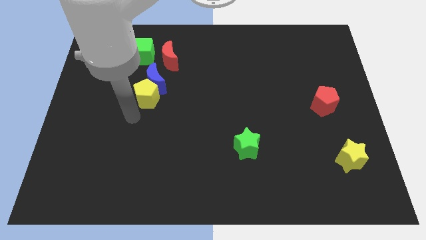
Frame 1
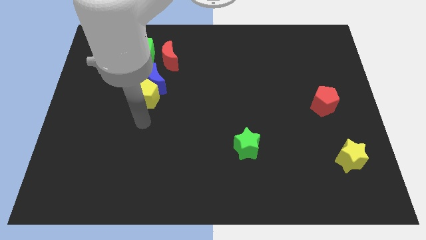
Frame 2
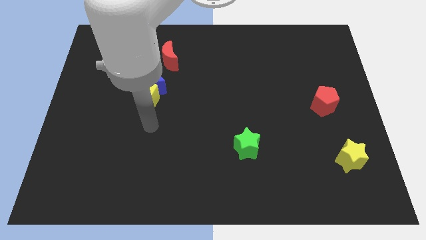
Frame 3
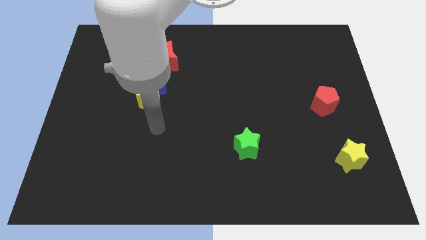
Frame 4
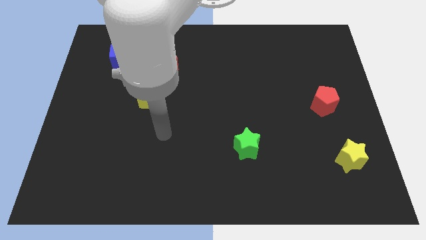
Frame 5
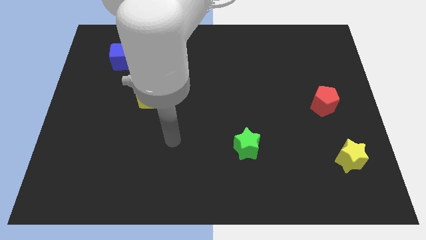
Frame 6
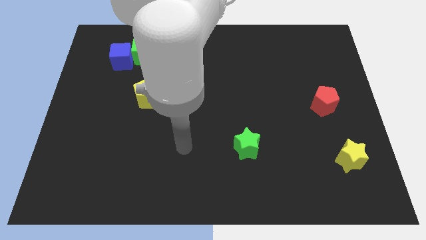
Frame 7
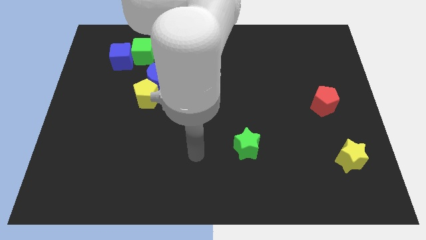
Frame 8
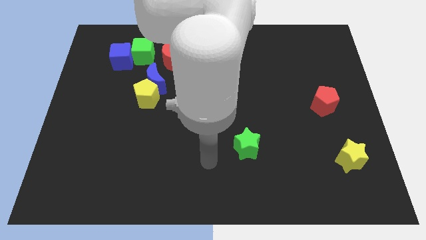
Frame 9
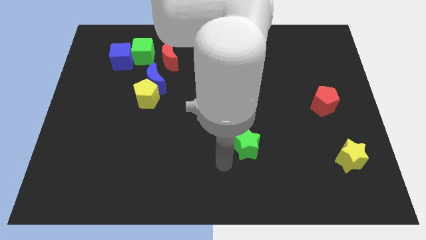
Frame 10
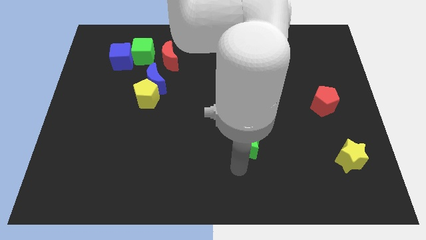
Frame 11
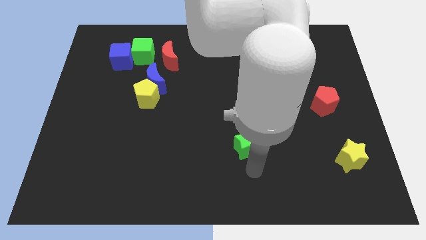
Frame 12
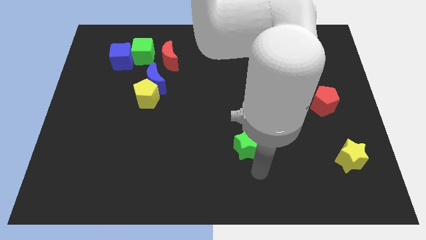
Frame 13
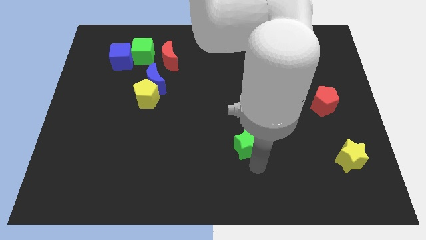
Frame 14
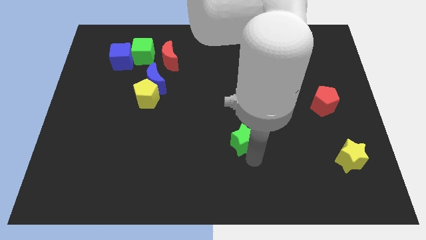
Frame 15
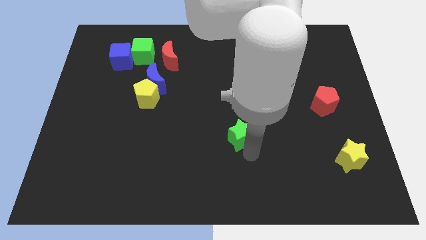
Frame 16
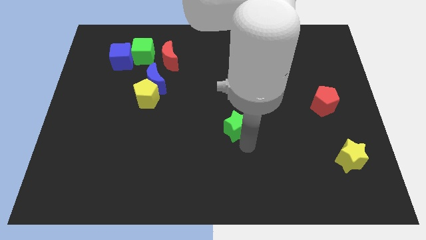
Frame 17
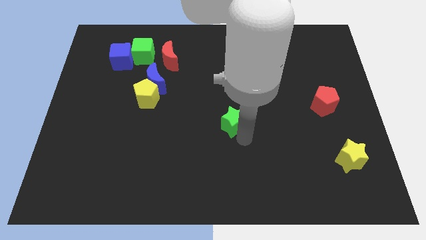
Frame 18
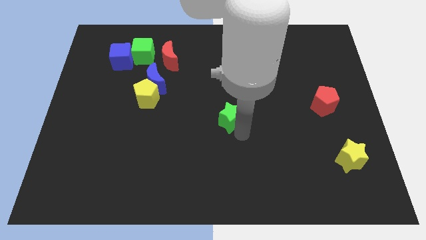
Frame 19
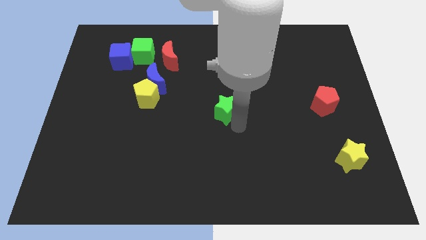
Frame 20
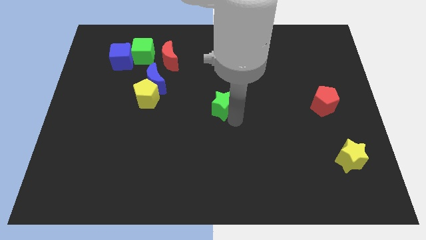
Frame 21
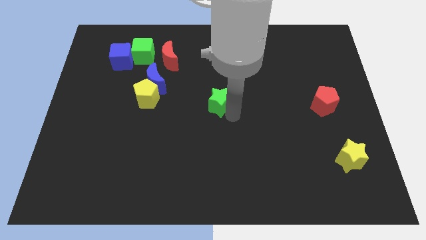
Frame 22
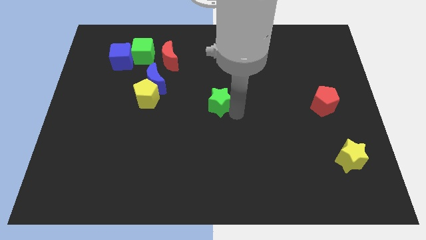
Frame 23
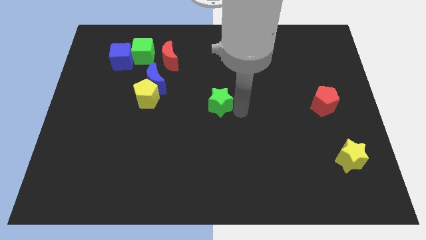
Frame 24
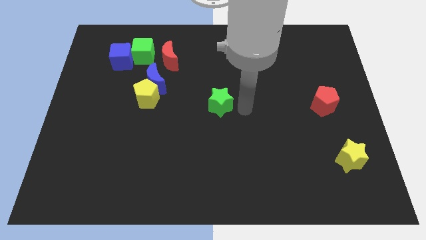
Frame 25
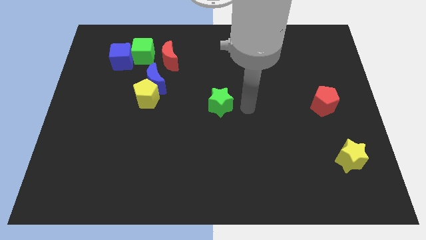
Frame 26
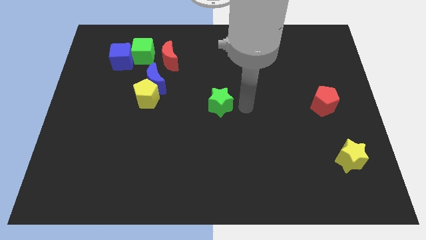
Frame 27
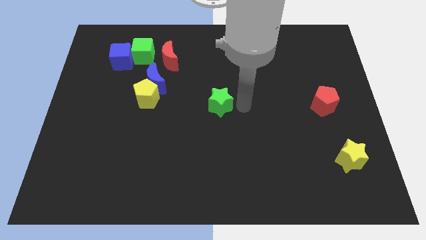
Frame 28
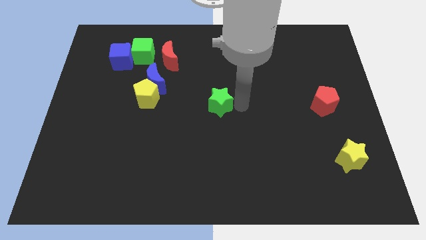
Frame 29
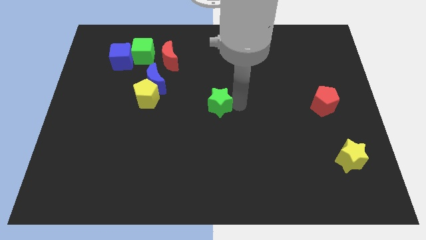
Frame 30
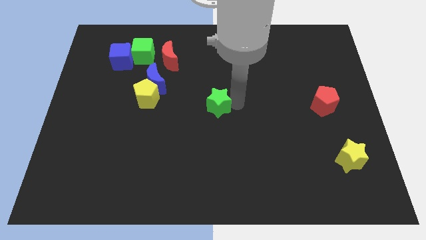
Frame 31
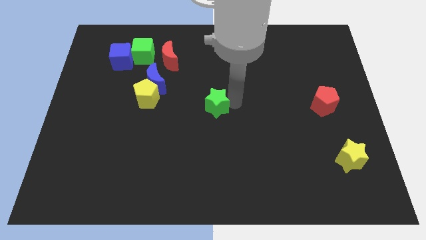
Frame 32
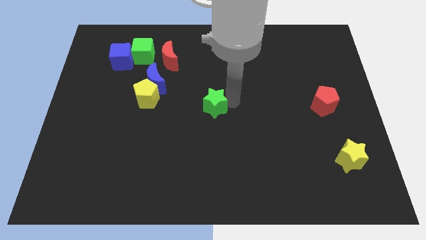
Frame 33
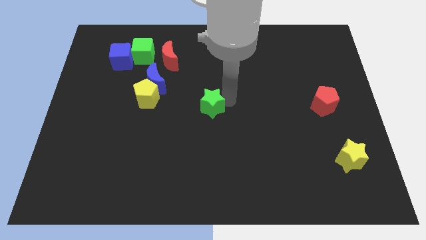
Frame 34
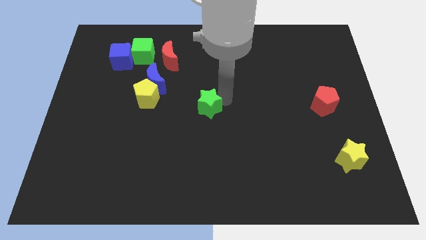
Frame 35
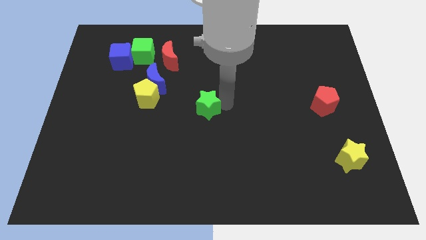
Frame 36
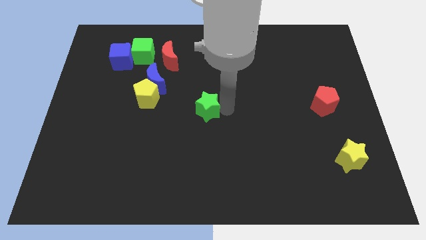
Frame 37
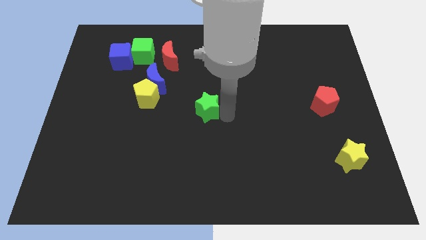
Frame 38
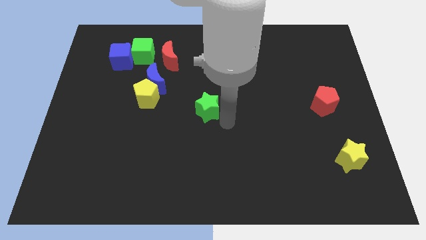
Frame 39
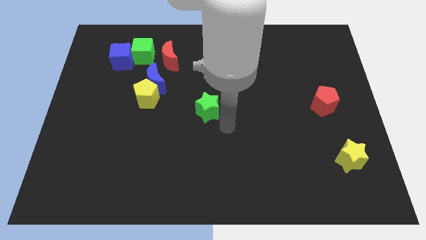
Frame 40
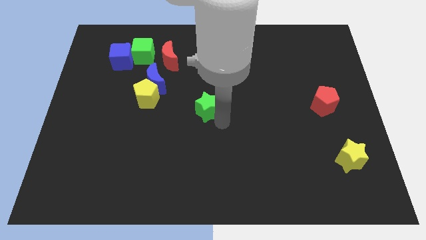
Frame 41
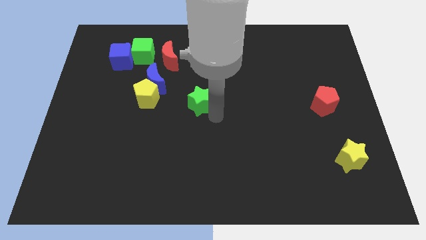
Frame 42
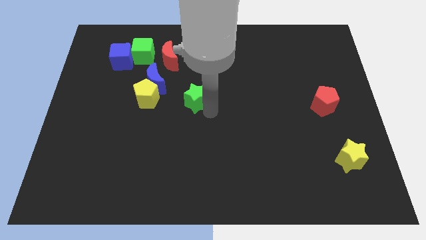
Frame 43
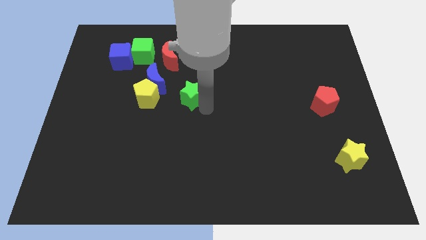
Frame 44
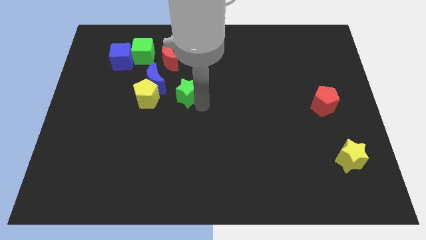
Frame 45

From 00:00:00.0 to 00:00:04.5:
slide the green star up and to the left diagonally

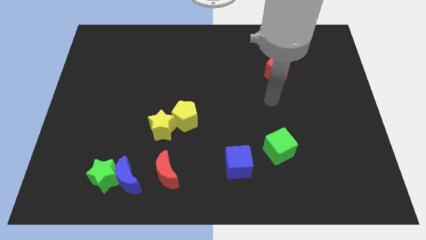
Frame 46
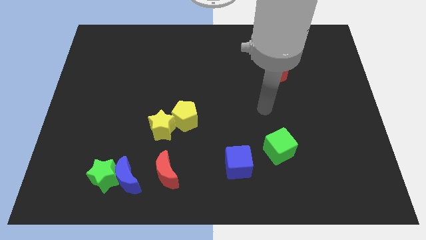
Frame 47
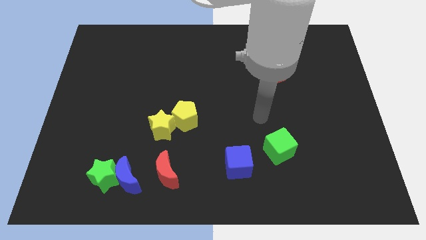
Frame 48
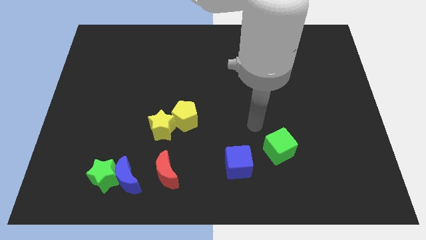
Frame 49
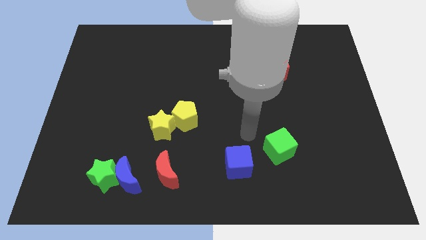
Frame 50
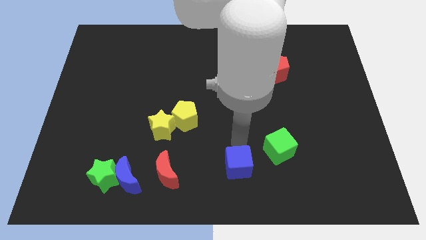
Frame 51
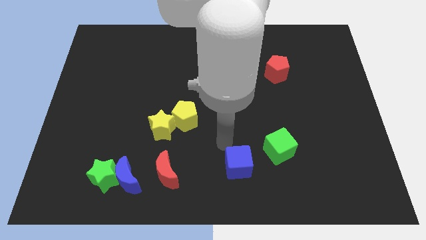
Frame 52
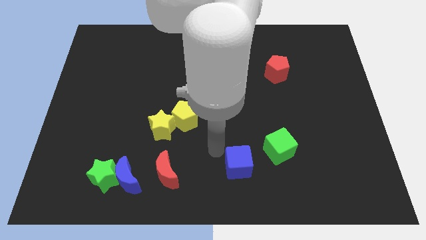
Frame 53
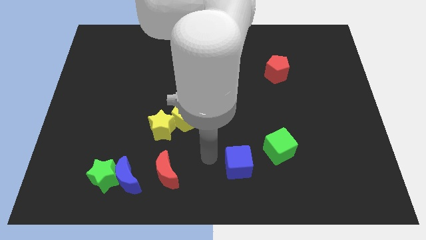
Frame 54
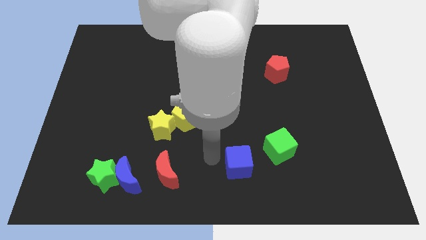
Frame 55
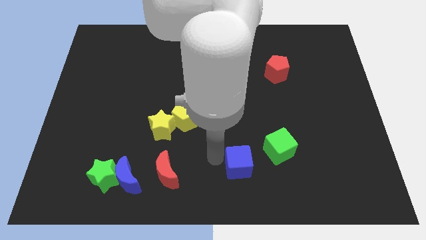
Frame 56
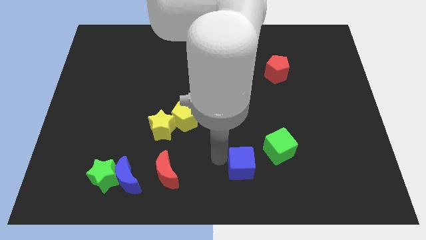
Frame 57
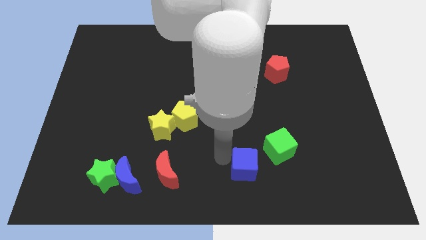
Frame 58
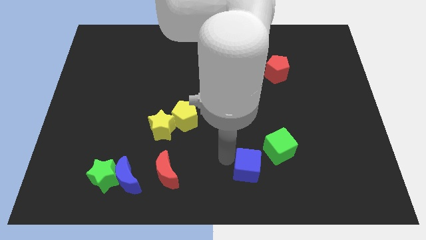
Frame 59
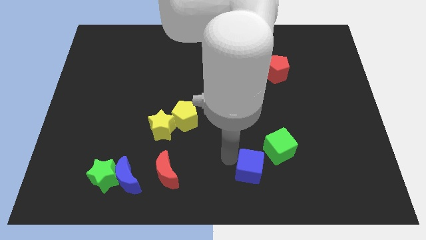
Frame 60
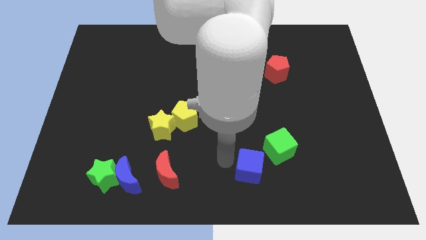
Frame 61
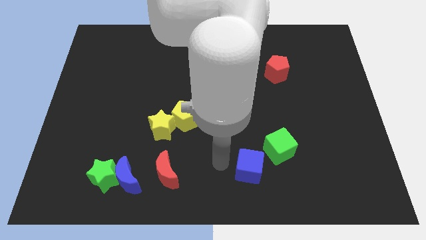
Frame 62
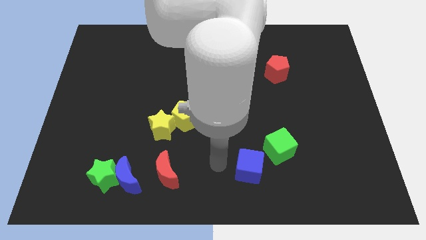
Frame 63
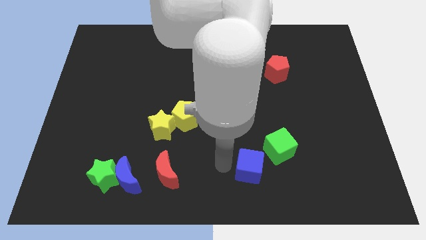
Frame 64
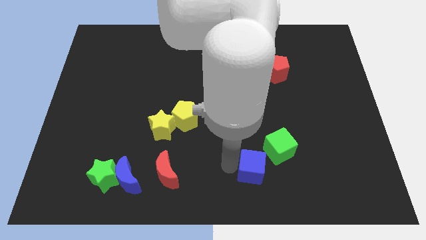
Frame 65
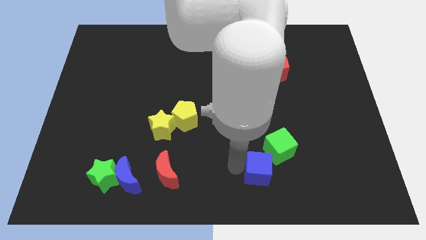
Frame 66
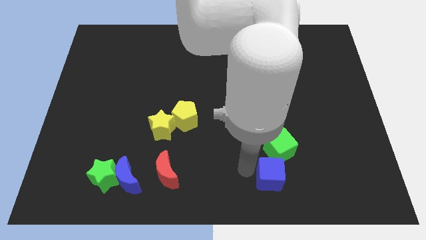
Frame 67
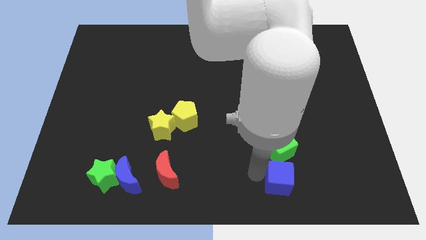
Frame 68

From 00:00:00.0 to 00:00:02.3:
slide the blue cube to the right slightly

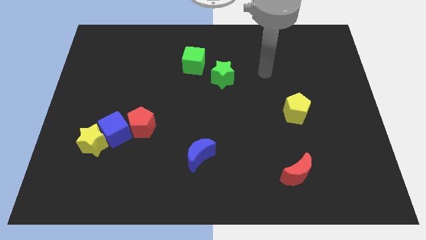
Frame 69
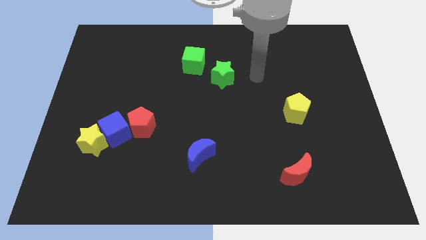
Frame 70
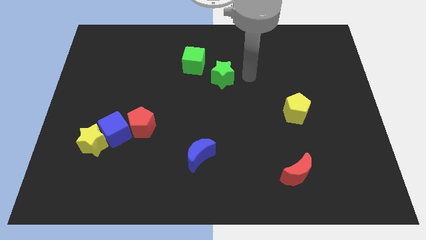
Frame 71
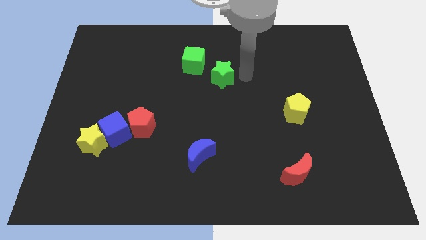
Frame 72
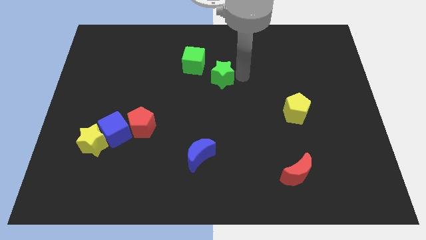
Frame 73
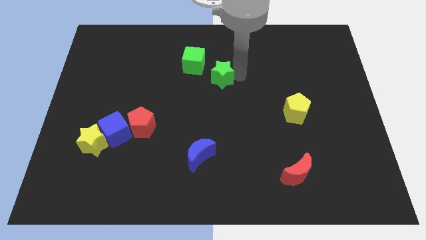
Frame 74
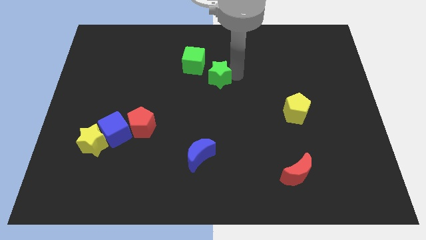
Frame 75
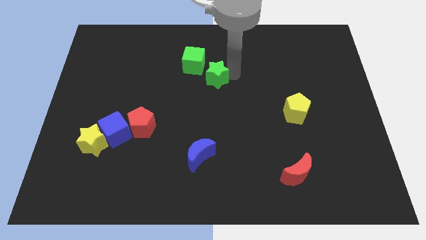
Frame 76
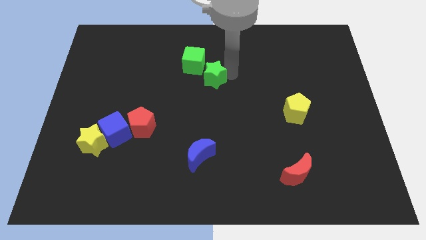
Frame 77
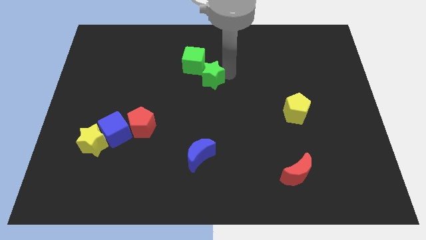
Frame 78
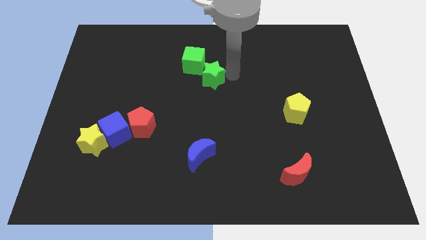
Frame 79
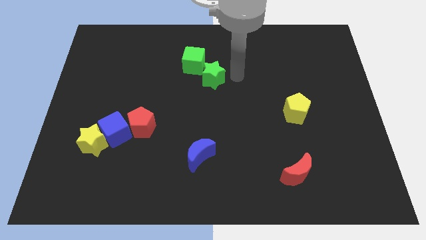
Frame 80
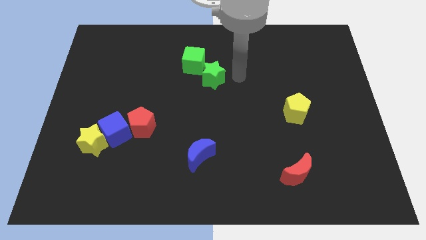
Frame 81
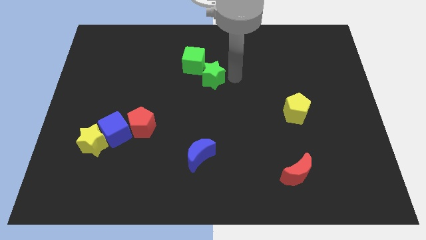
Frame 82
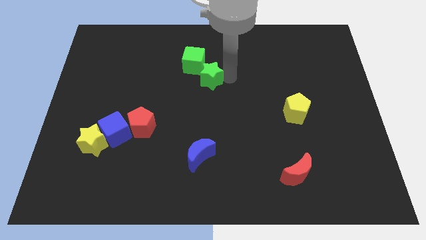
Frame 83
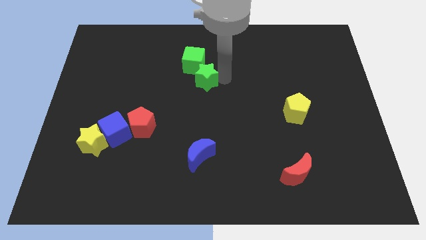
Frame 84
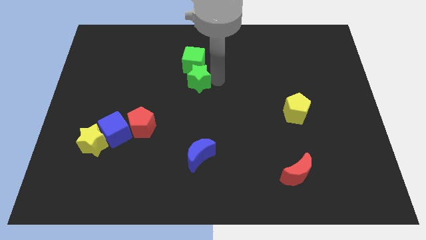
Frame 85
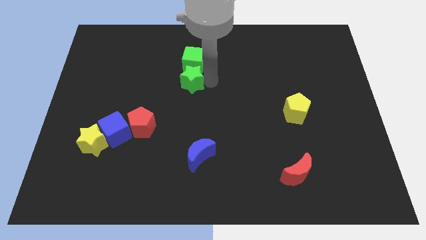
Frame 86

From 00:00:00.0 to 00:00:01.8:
push the green star to the left a little bit
